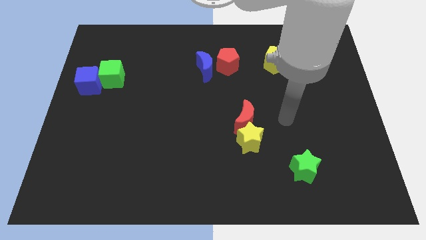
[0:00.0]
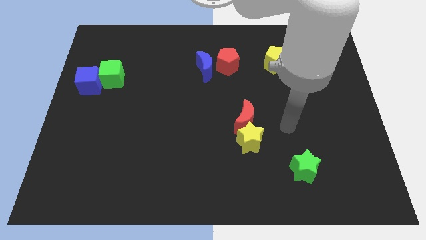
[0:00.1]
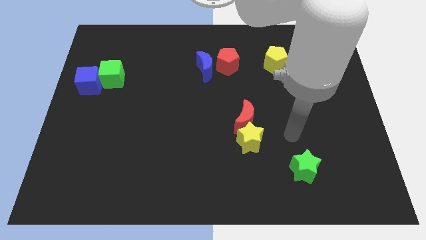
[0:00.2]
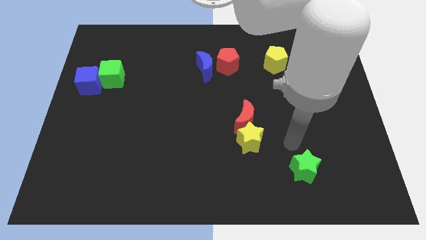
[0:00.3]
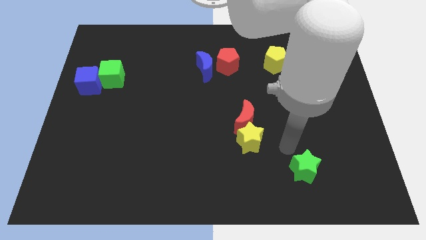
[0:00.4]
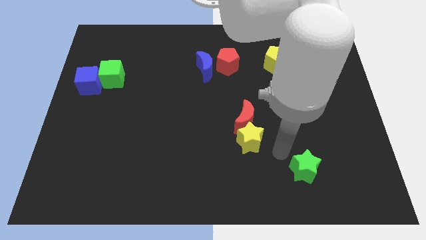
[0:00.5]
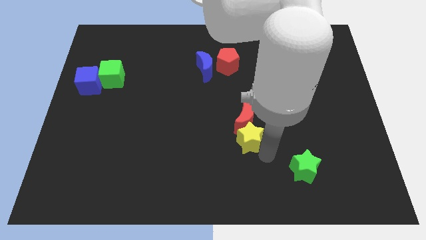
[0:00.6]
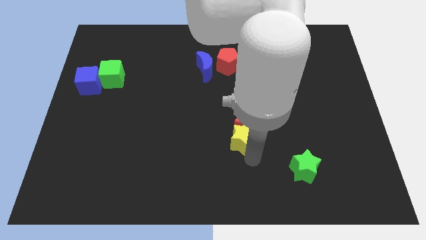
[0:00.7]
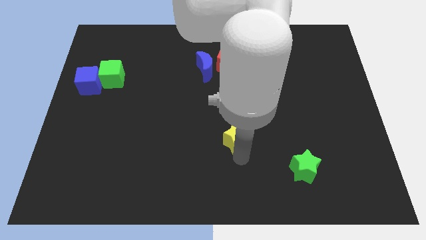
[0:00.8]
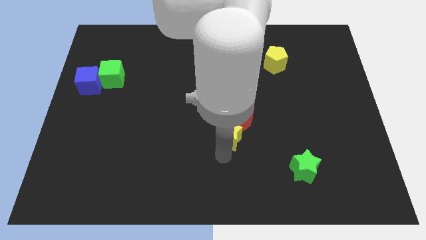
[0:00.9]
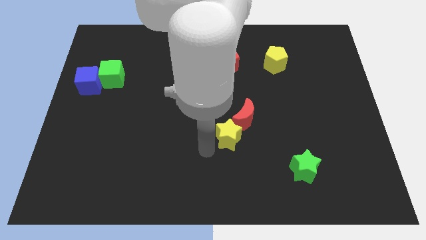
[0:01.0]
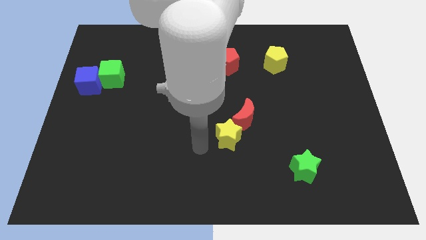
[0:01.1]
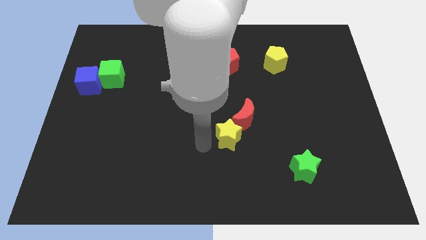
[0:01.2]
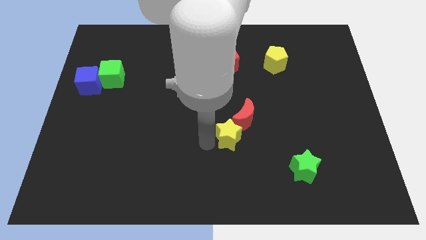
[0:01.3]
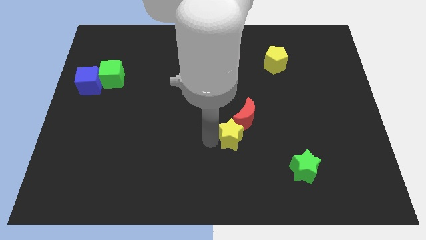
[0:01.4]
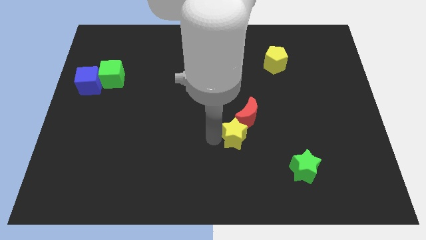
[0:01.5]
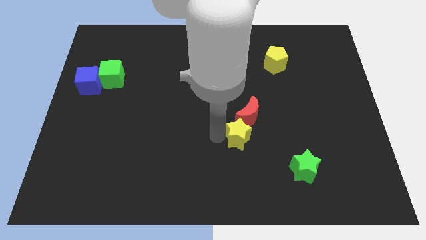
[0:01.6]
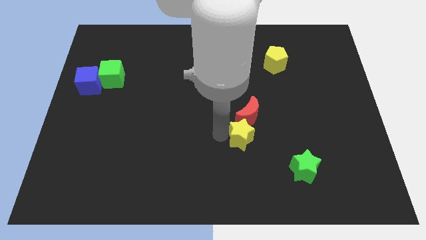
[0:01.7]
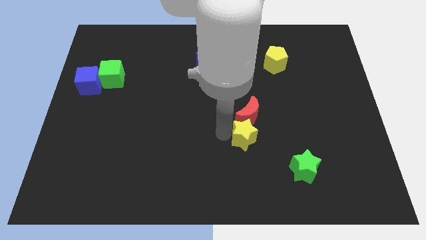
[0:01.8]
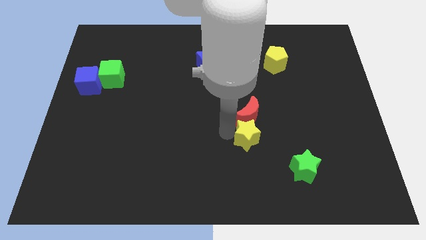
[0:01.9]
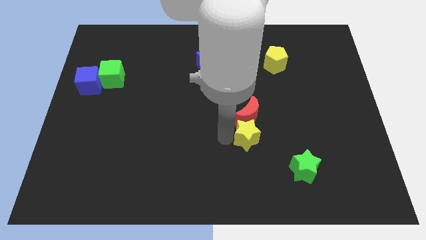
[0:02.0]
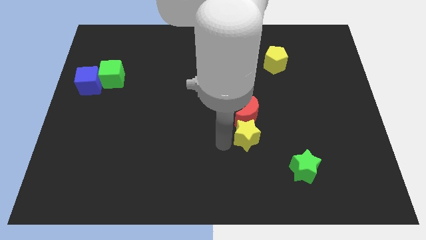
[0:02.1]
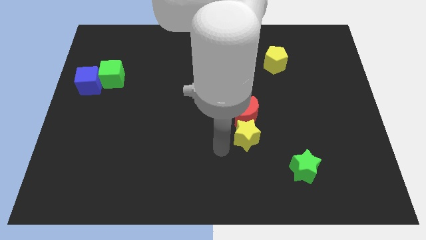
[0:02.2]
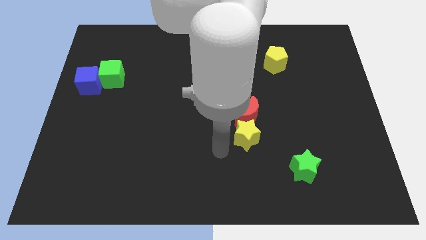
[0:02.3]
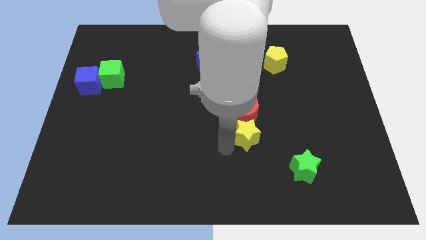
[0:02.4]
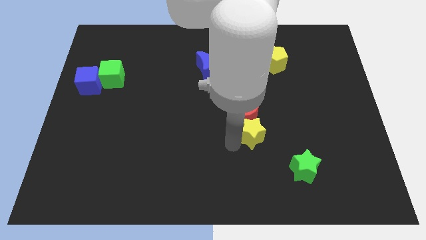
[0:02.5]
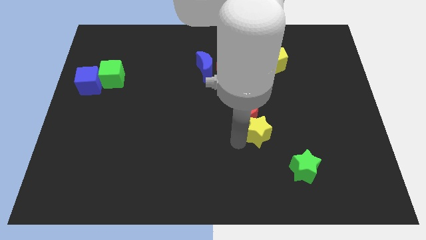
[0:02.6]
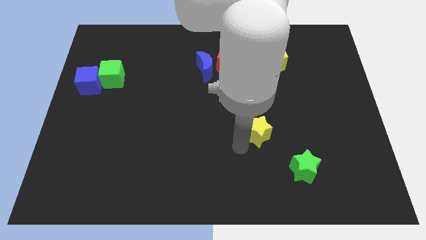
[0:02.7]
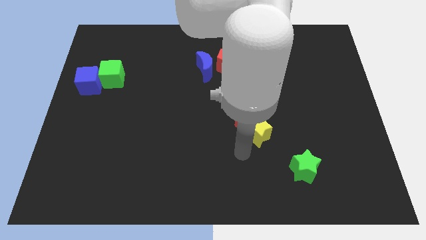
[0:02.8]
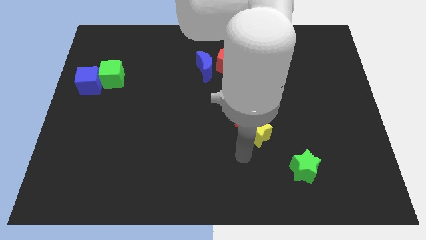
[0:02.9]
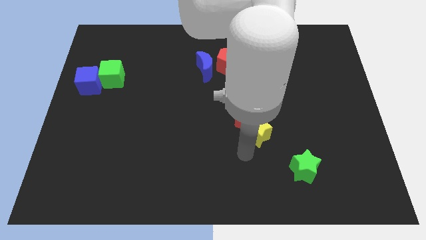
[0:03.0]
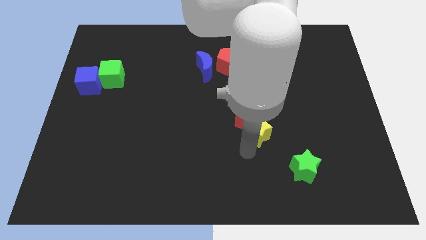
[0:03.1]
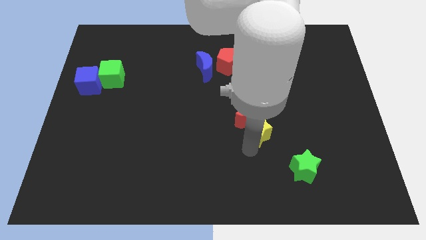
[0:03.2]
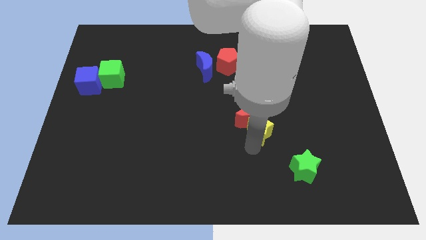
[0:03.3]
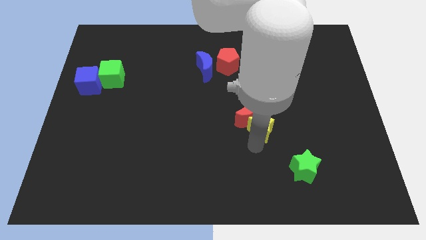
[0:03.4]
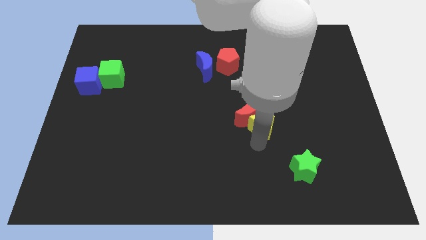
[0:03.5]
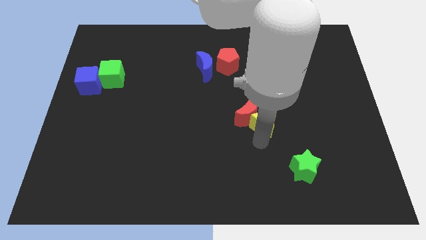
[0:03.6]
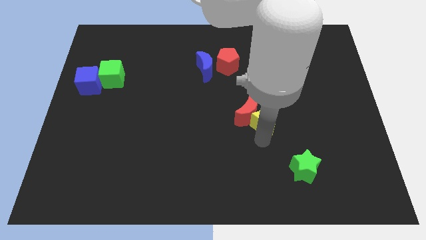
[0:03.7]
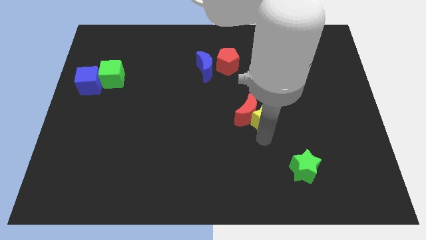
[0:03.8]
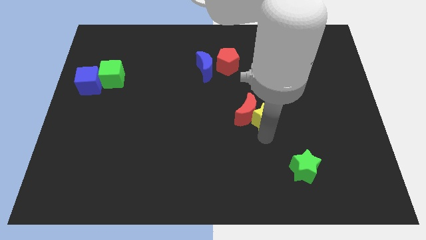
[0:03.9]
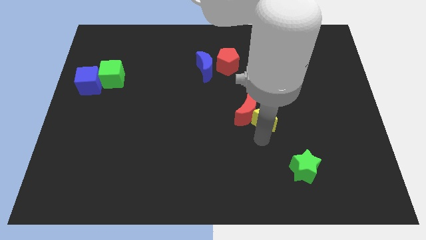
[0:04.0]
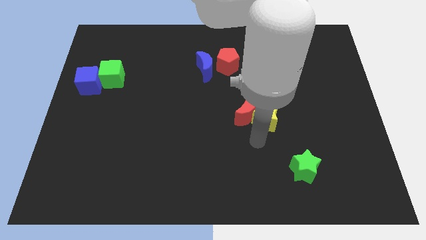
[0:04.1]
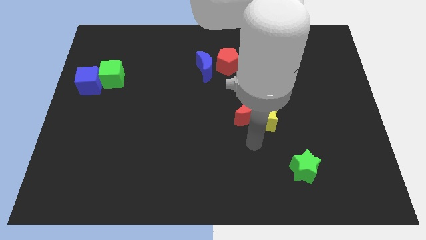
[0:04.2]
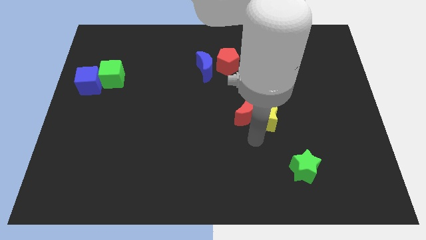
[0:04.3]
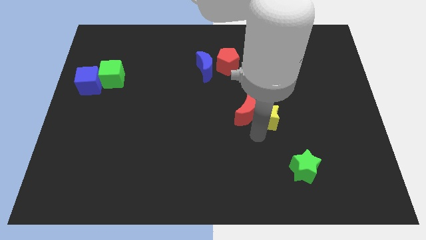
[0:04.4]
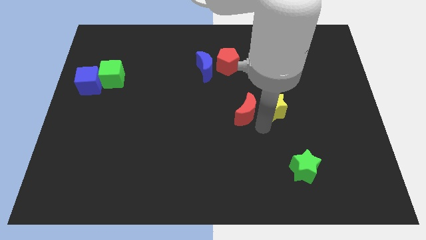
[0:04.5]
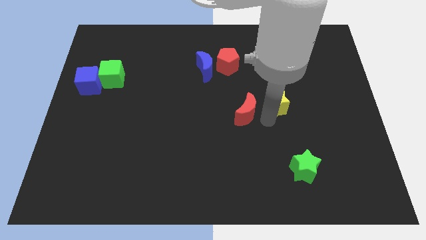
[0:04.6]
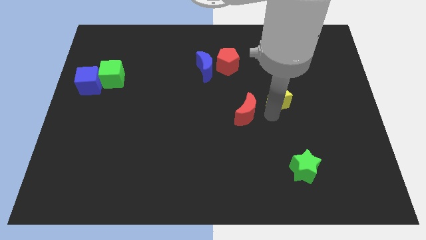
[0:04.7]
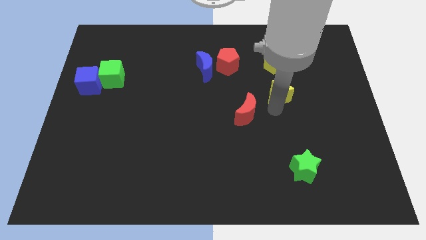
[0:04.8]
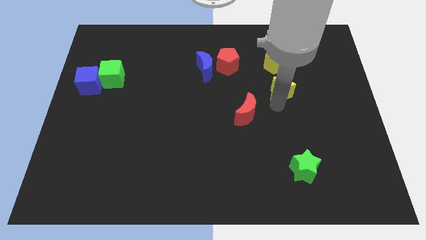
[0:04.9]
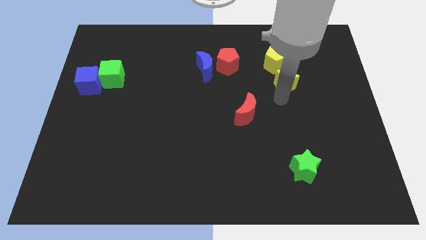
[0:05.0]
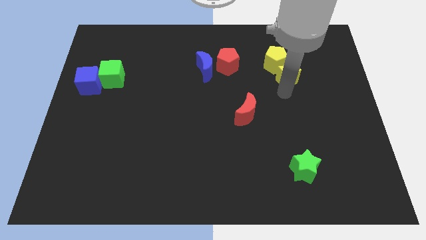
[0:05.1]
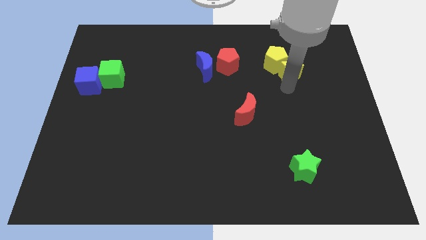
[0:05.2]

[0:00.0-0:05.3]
put the yellow star to the yellow pentagon

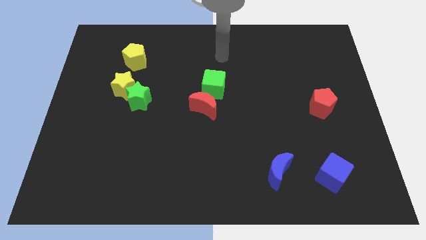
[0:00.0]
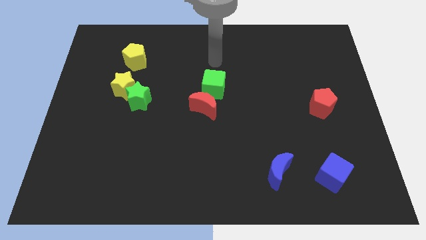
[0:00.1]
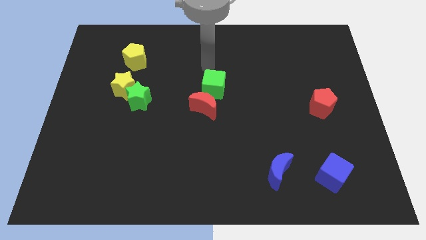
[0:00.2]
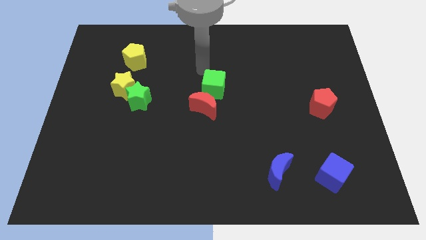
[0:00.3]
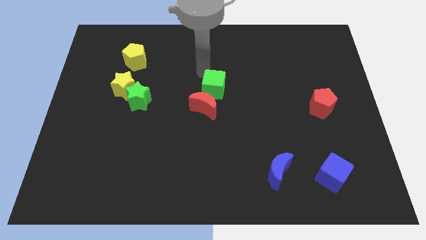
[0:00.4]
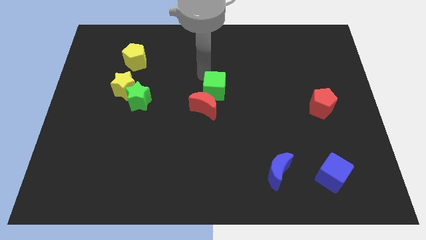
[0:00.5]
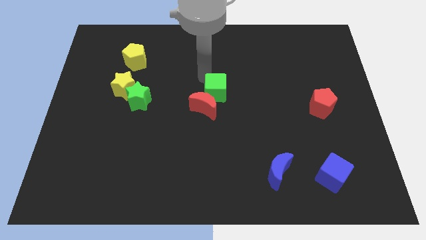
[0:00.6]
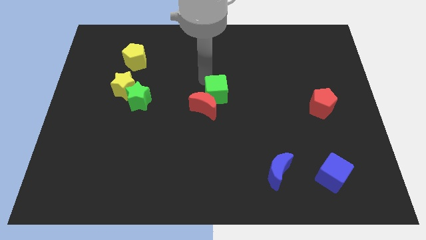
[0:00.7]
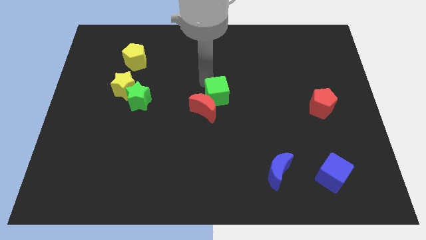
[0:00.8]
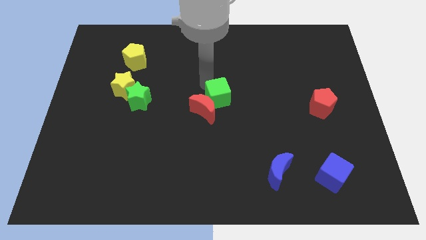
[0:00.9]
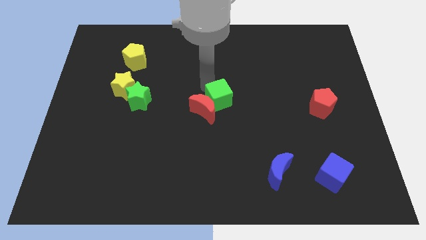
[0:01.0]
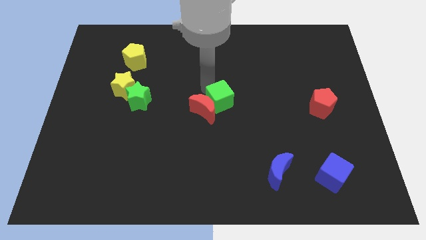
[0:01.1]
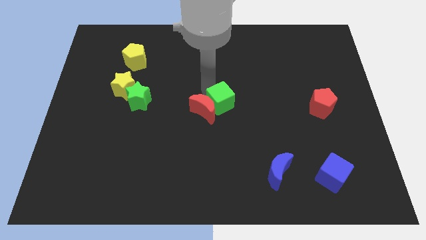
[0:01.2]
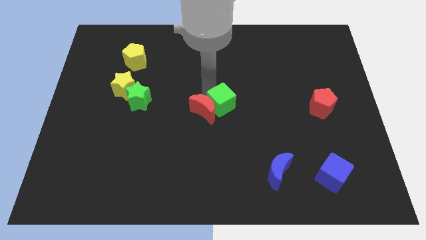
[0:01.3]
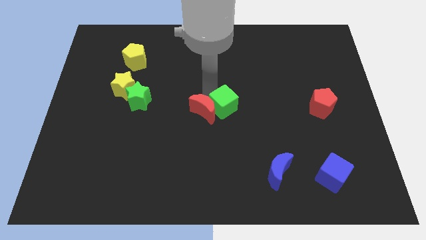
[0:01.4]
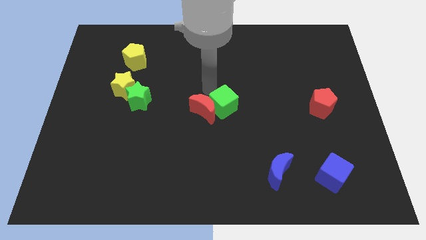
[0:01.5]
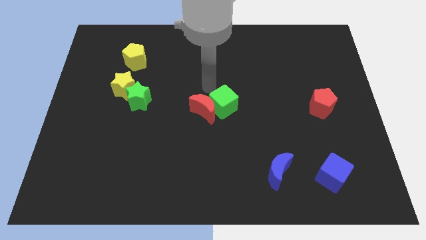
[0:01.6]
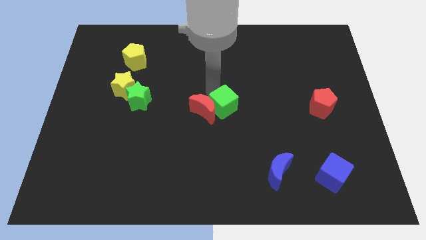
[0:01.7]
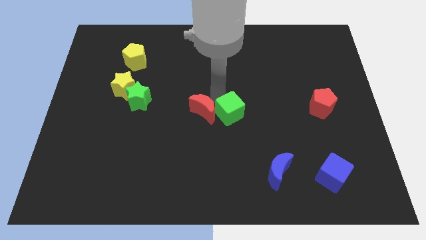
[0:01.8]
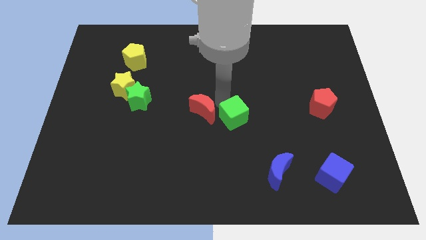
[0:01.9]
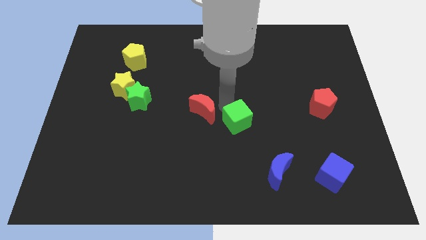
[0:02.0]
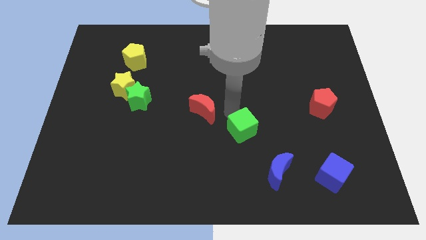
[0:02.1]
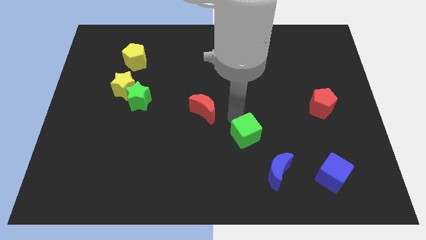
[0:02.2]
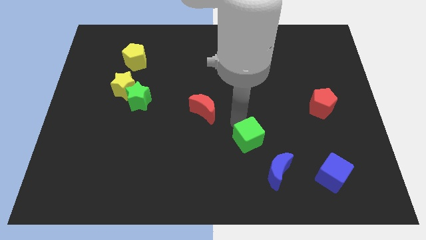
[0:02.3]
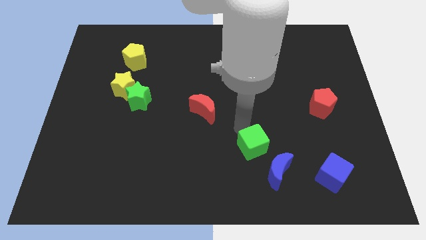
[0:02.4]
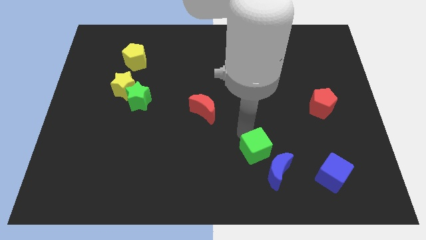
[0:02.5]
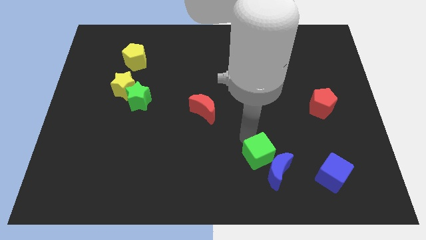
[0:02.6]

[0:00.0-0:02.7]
put the green cube next to the blue moon
